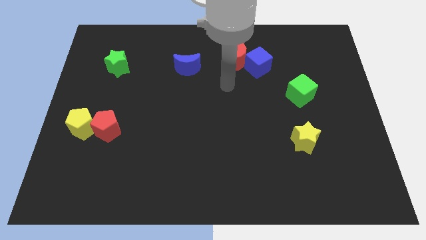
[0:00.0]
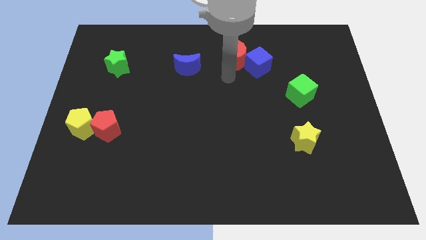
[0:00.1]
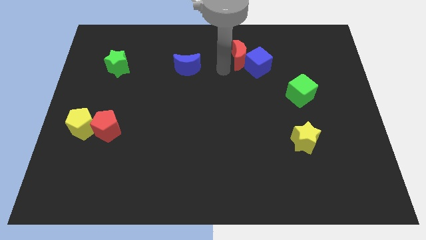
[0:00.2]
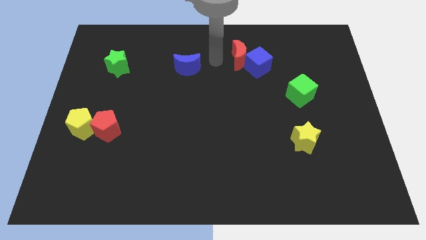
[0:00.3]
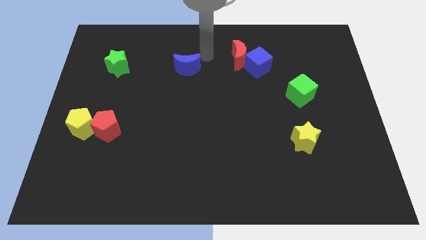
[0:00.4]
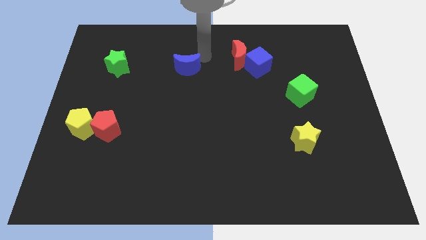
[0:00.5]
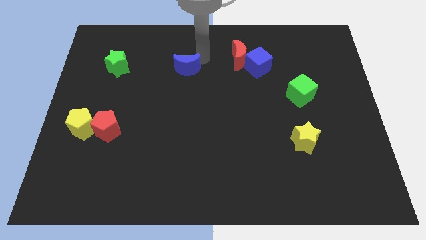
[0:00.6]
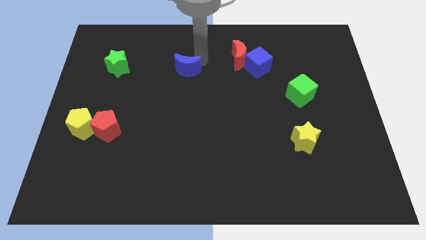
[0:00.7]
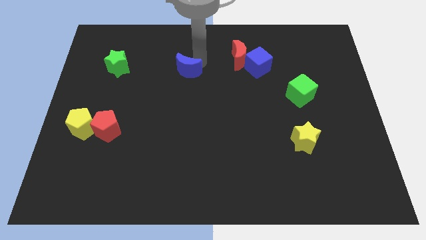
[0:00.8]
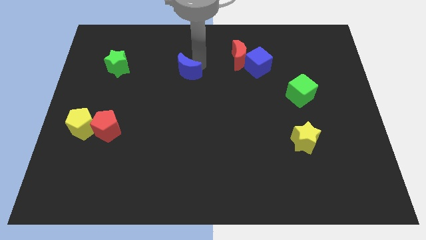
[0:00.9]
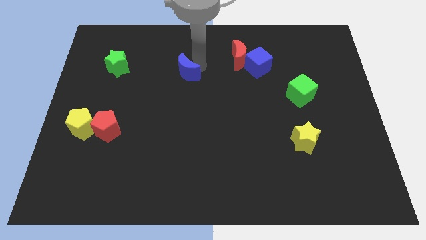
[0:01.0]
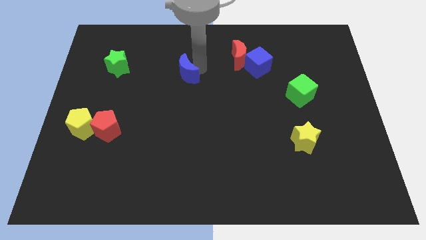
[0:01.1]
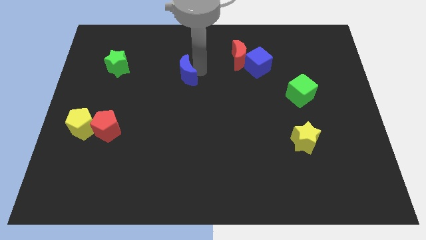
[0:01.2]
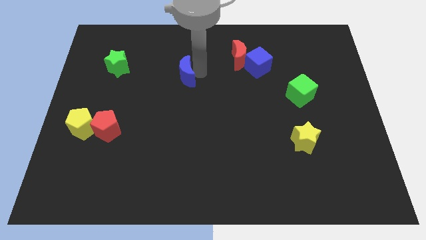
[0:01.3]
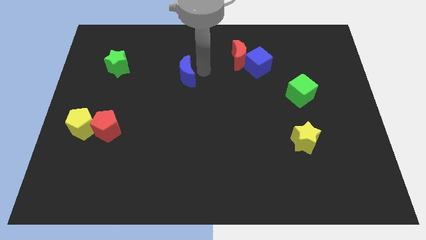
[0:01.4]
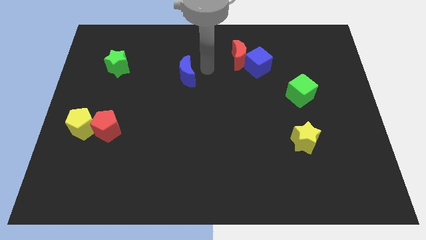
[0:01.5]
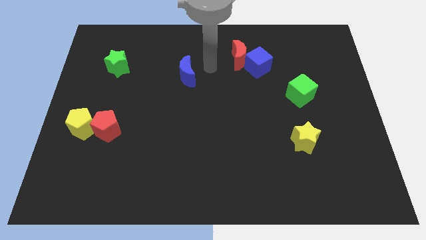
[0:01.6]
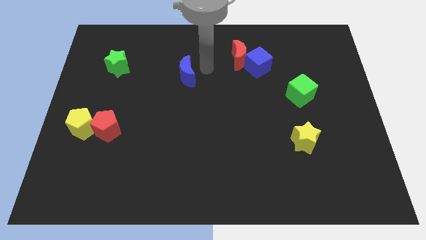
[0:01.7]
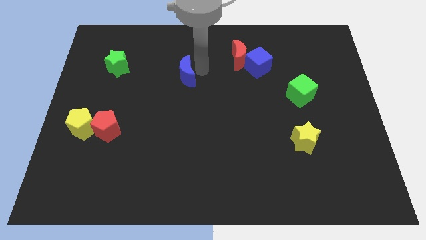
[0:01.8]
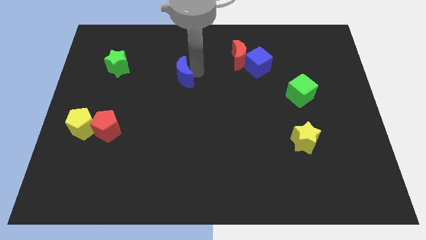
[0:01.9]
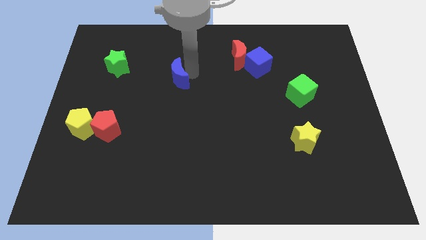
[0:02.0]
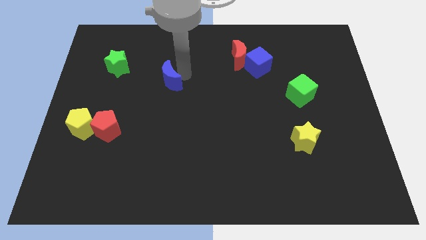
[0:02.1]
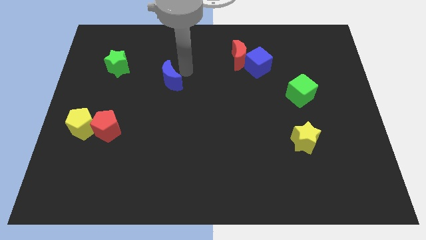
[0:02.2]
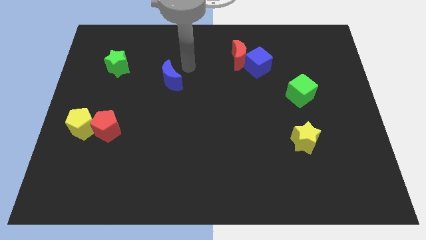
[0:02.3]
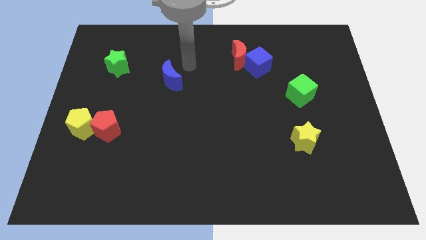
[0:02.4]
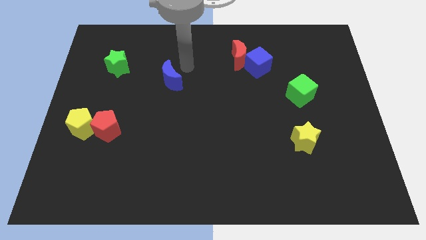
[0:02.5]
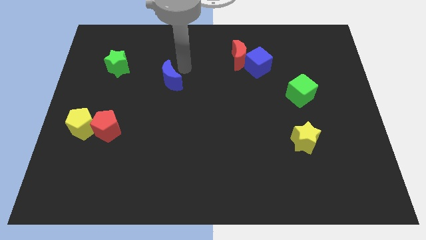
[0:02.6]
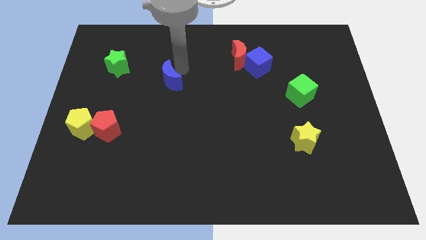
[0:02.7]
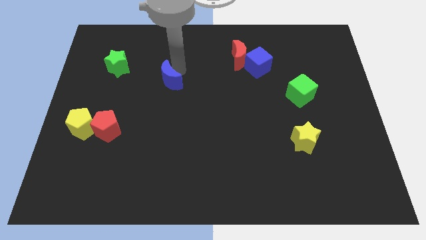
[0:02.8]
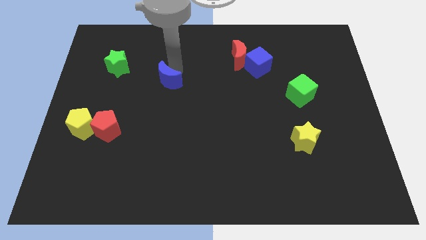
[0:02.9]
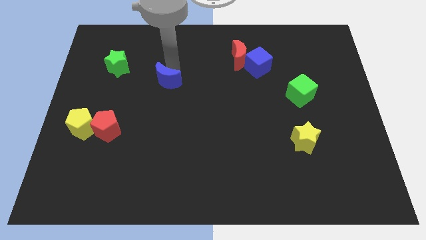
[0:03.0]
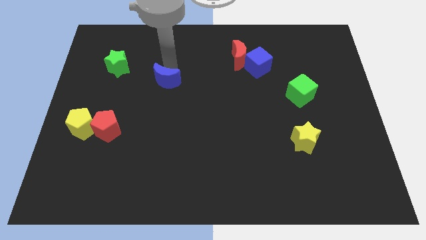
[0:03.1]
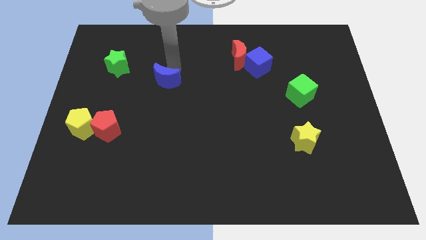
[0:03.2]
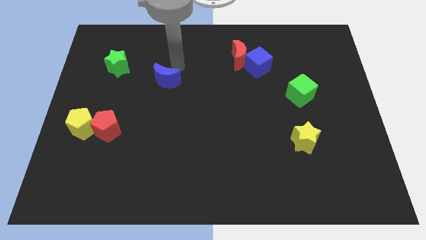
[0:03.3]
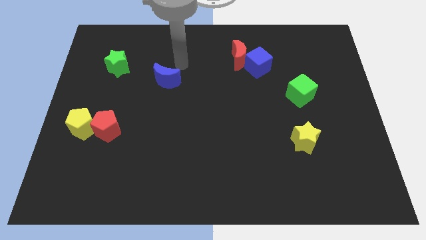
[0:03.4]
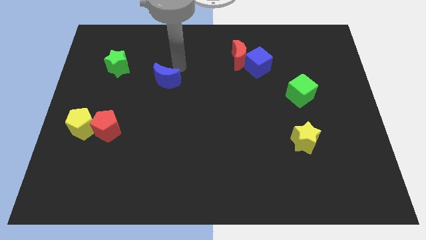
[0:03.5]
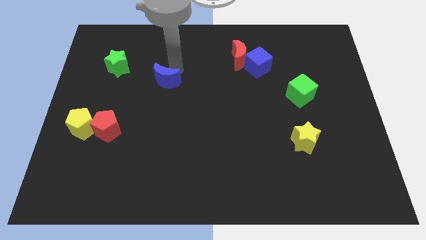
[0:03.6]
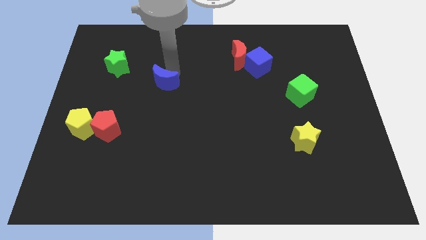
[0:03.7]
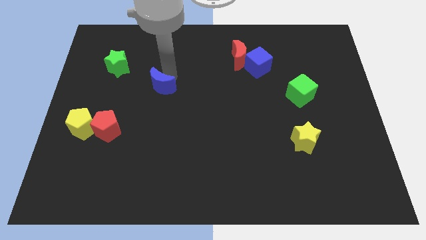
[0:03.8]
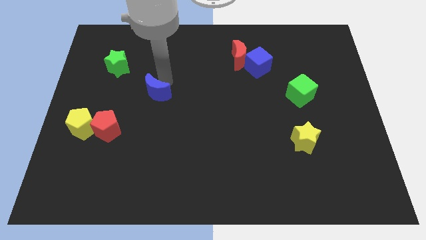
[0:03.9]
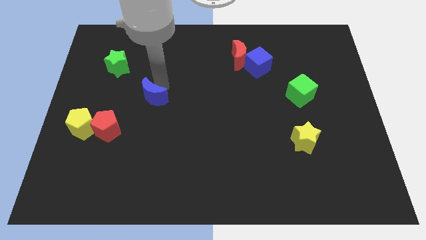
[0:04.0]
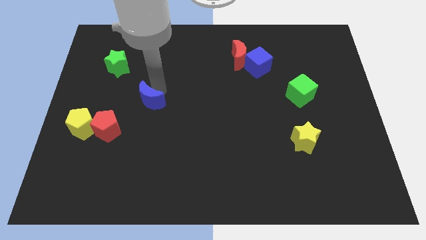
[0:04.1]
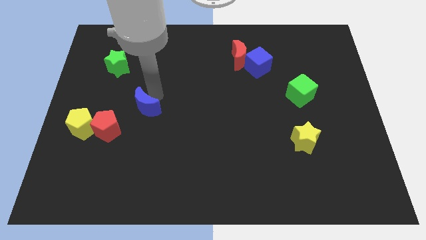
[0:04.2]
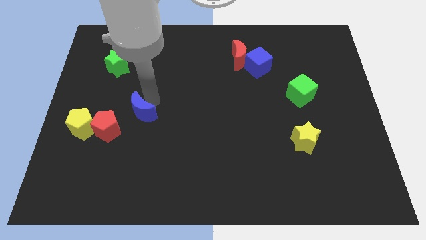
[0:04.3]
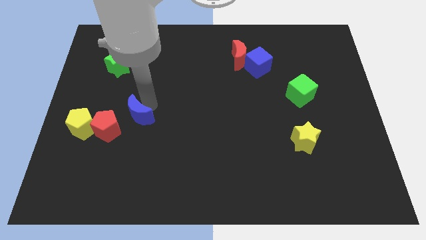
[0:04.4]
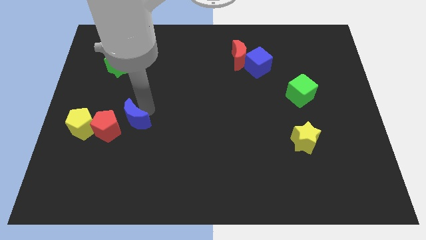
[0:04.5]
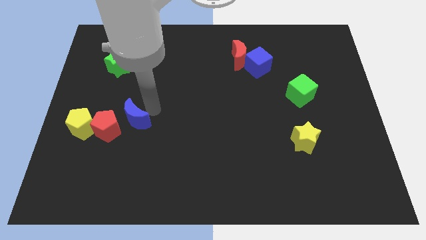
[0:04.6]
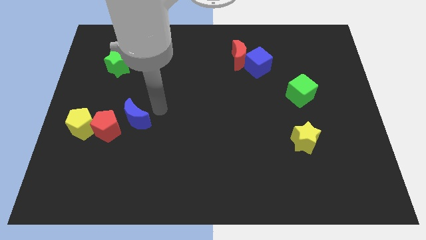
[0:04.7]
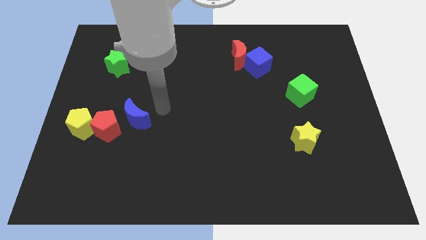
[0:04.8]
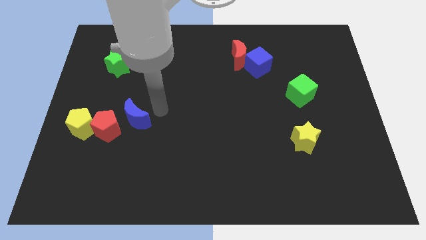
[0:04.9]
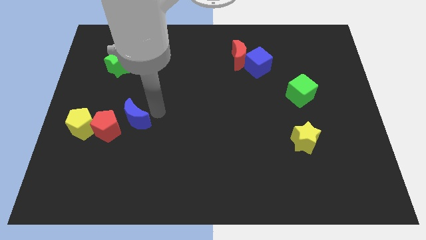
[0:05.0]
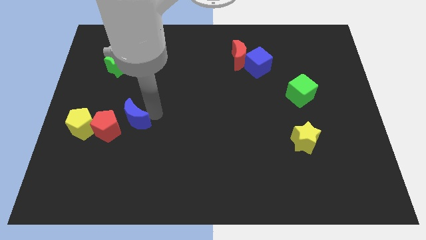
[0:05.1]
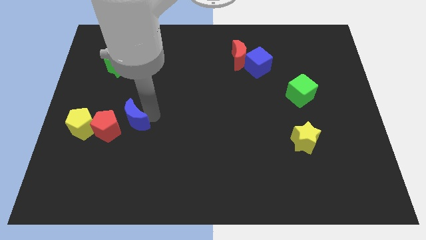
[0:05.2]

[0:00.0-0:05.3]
slide the blue moon close to the red pentagon

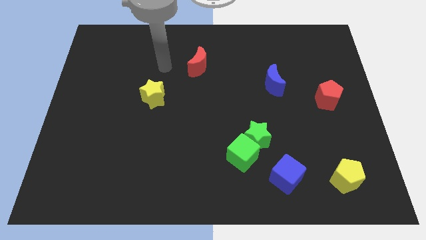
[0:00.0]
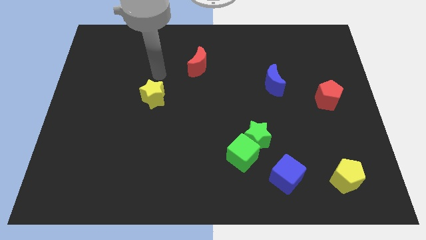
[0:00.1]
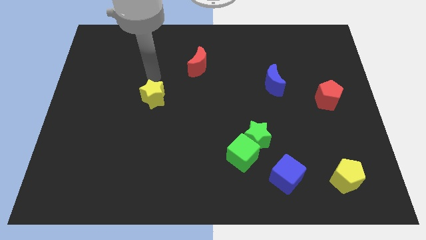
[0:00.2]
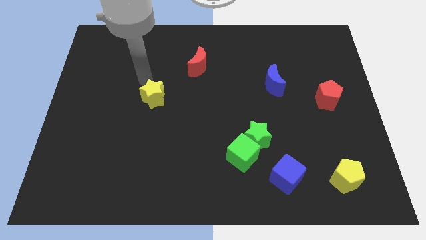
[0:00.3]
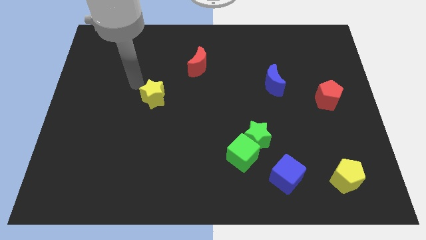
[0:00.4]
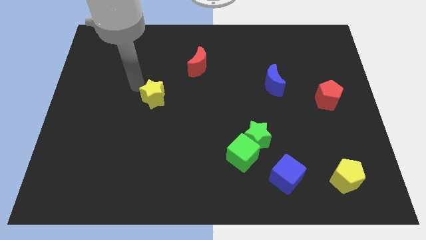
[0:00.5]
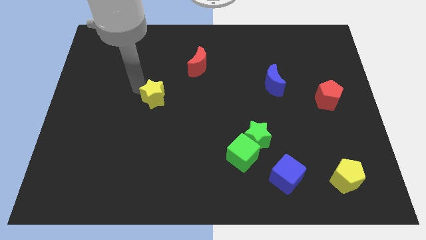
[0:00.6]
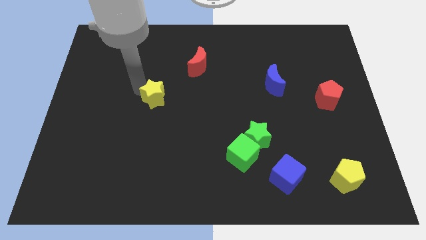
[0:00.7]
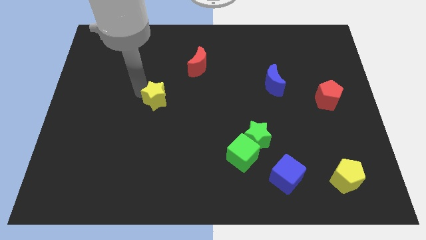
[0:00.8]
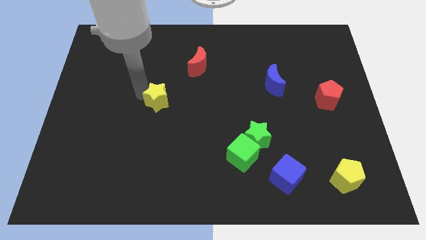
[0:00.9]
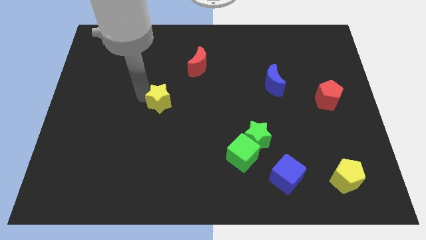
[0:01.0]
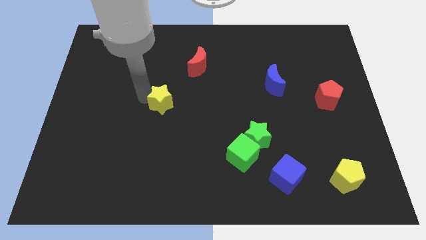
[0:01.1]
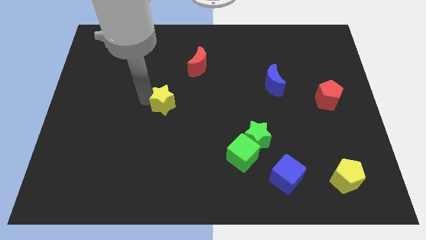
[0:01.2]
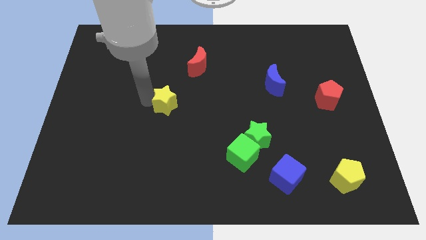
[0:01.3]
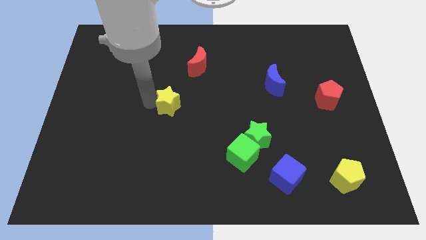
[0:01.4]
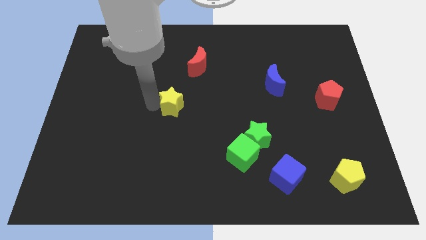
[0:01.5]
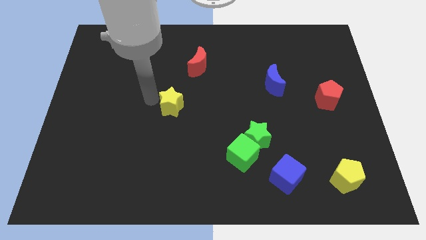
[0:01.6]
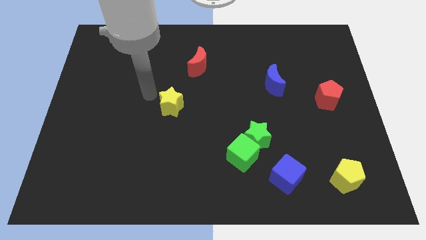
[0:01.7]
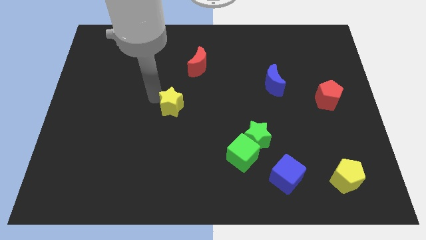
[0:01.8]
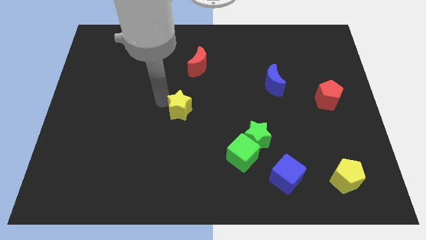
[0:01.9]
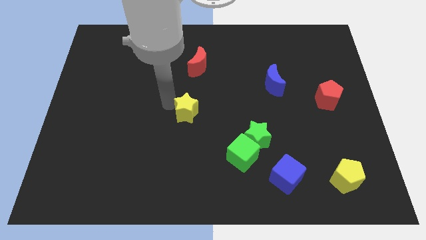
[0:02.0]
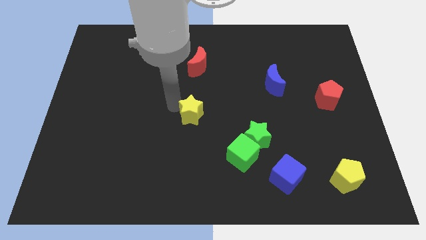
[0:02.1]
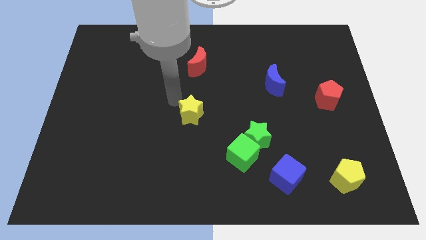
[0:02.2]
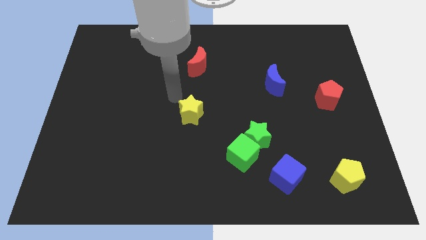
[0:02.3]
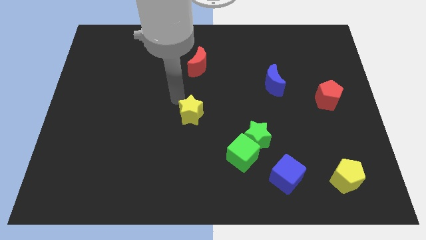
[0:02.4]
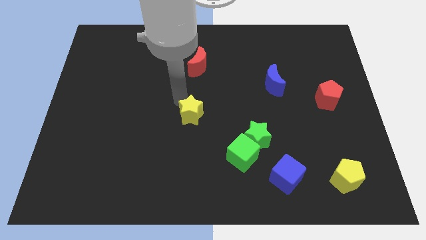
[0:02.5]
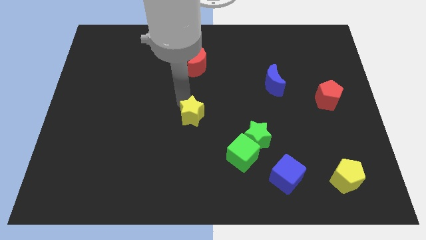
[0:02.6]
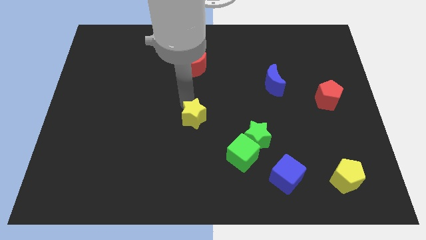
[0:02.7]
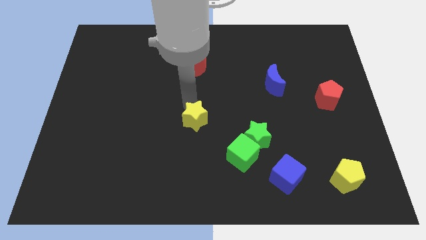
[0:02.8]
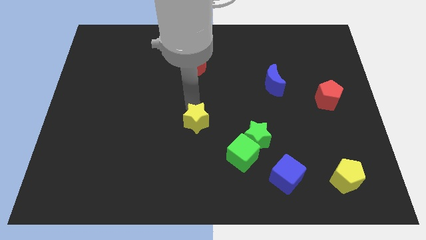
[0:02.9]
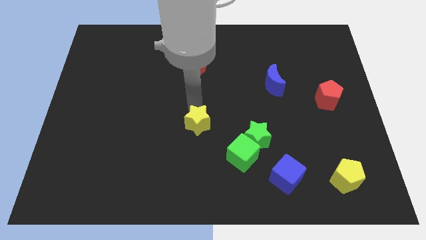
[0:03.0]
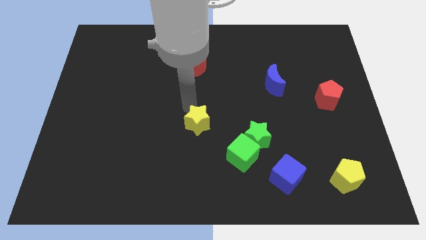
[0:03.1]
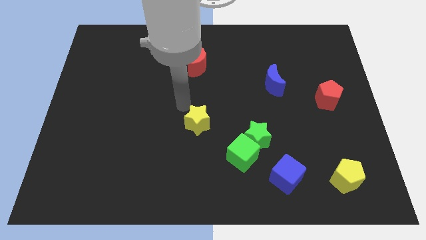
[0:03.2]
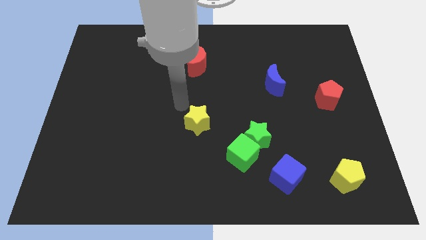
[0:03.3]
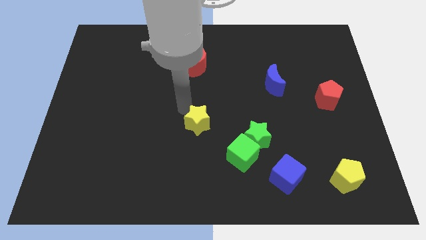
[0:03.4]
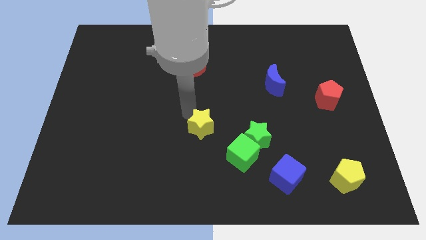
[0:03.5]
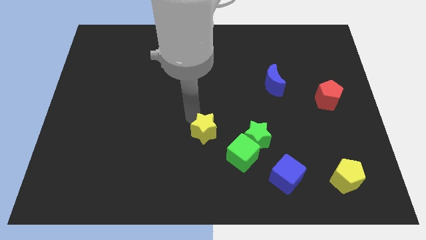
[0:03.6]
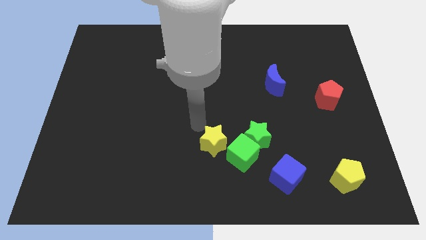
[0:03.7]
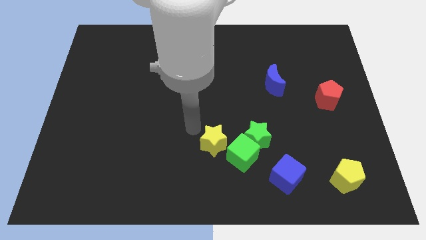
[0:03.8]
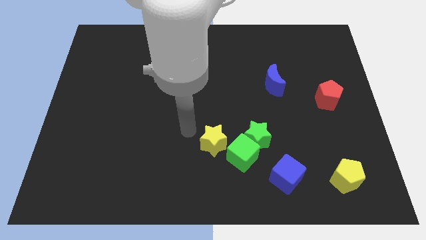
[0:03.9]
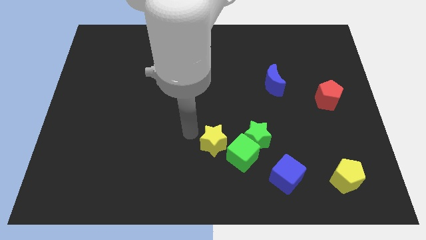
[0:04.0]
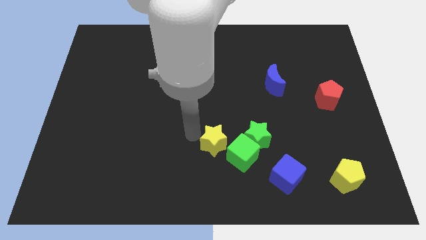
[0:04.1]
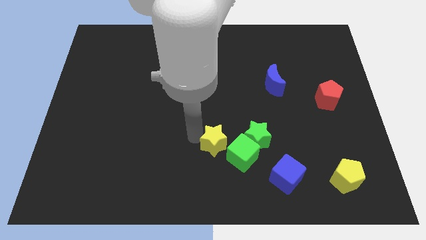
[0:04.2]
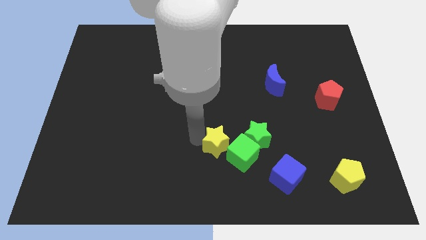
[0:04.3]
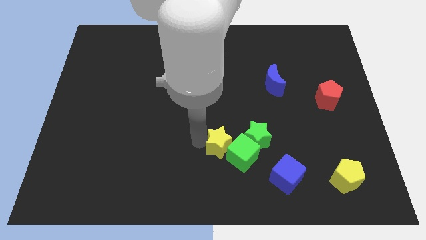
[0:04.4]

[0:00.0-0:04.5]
slide the yellow star next to the green cube
